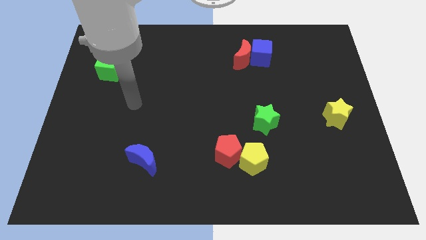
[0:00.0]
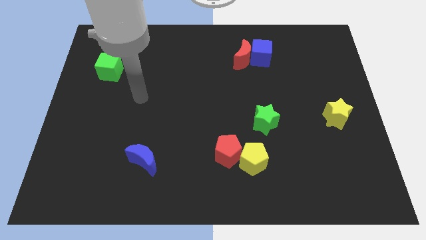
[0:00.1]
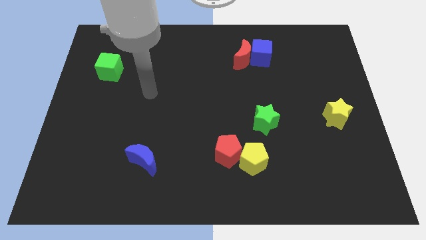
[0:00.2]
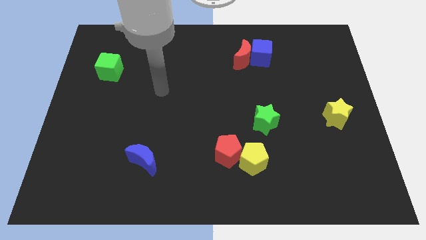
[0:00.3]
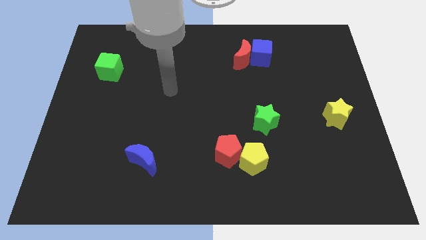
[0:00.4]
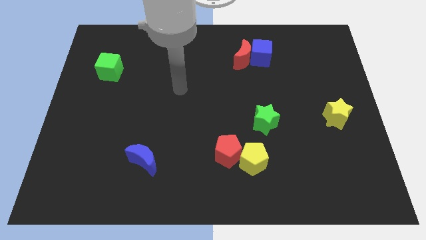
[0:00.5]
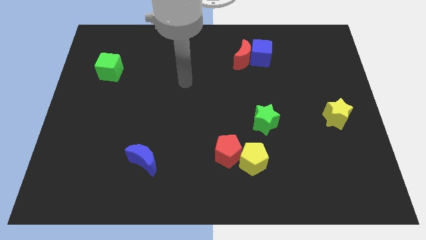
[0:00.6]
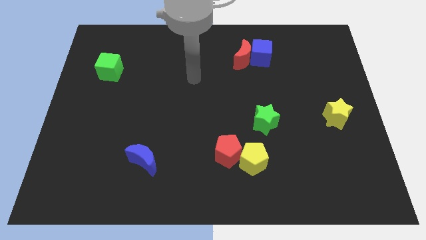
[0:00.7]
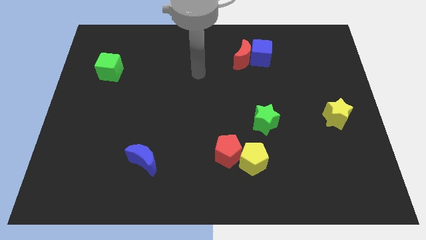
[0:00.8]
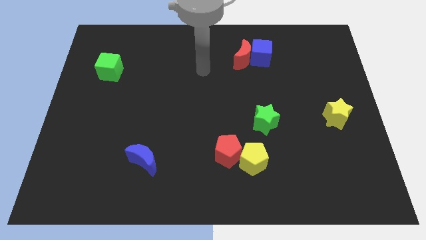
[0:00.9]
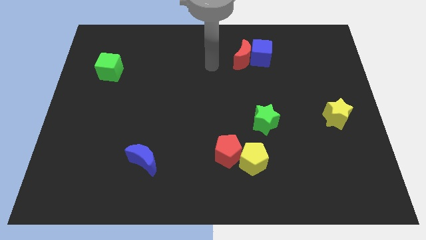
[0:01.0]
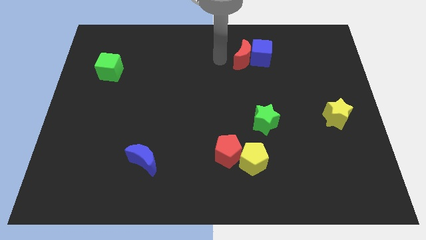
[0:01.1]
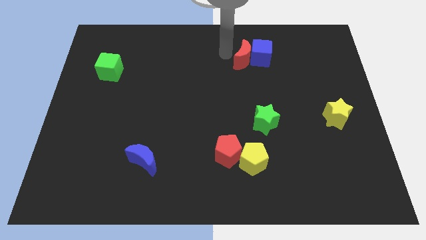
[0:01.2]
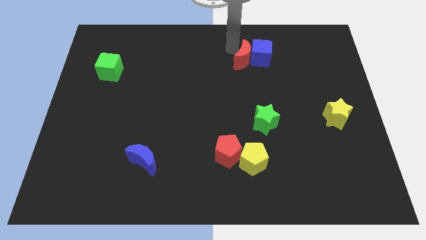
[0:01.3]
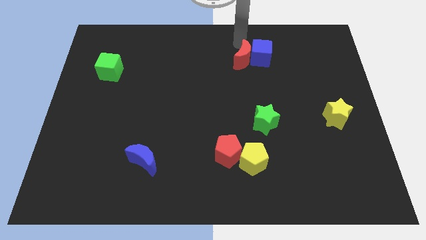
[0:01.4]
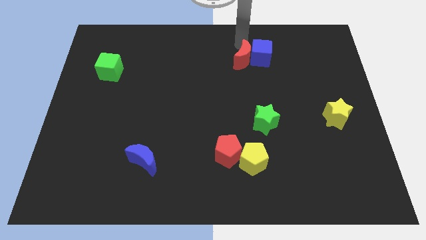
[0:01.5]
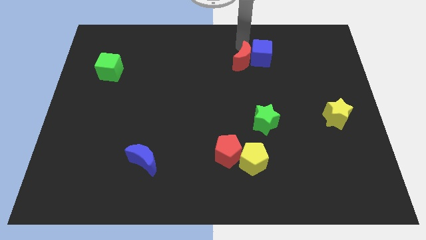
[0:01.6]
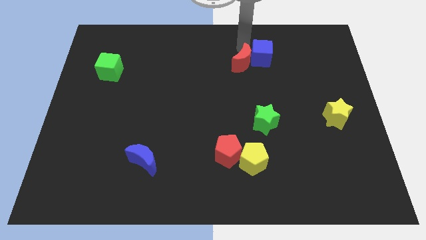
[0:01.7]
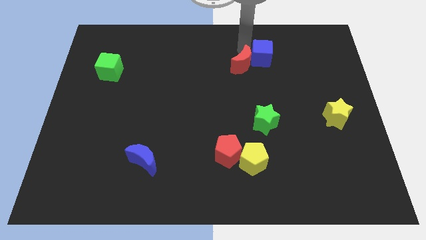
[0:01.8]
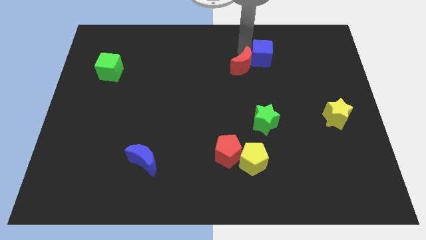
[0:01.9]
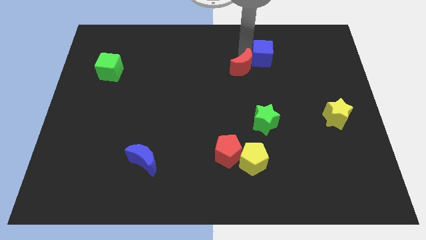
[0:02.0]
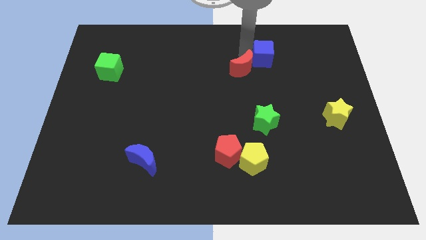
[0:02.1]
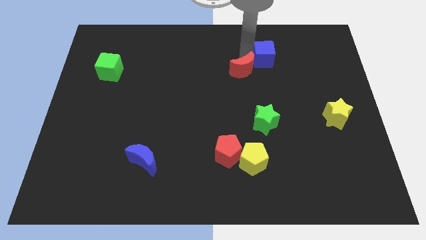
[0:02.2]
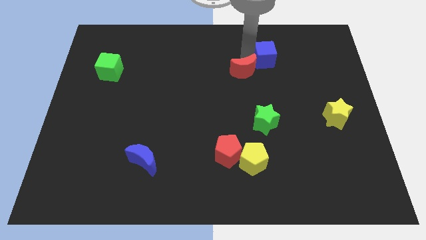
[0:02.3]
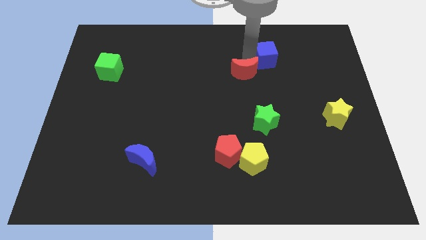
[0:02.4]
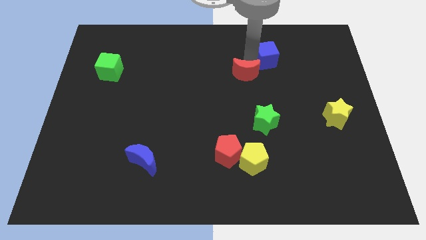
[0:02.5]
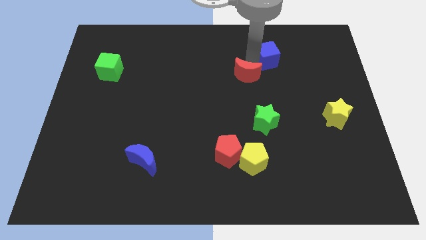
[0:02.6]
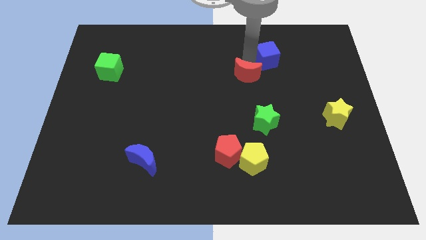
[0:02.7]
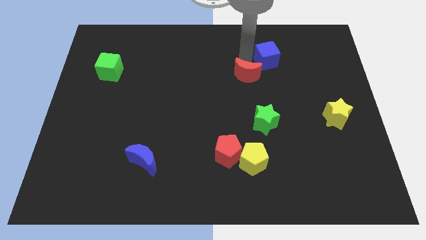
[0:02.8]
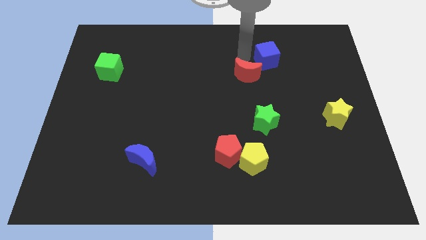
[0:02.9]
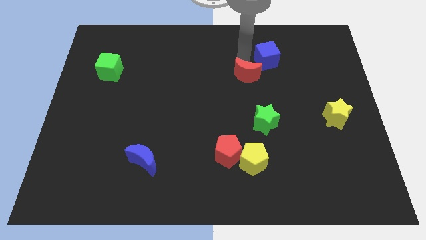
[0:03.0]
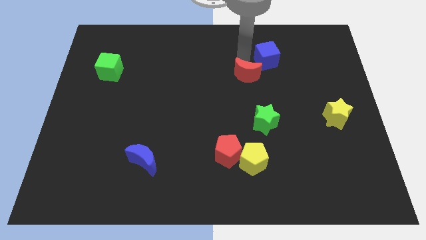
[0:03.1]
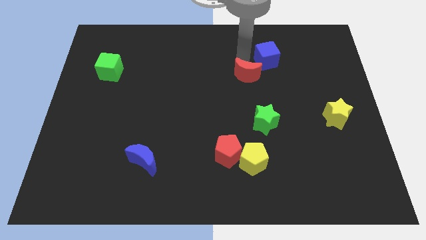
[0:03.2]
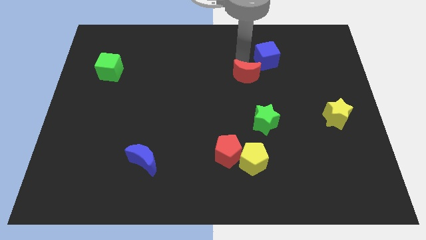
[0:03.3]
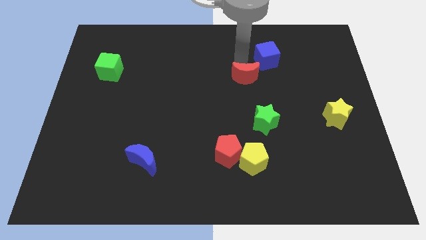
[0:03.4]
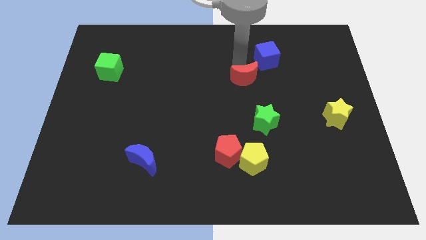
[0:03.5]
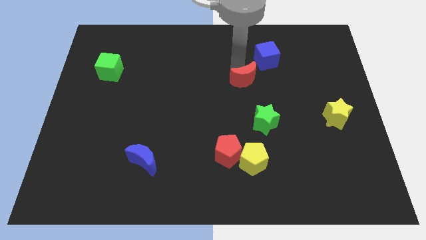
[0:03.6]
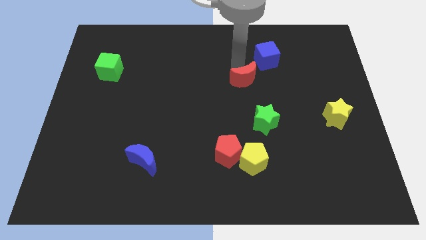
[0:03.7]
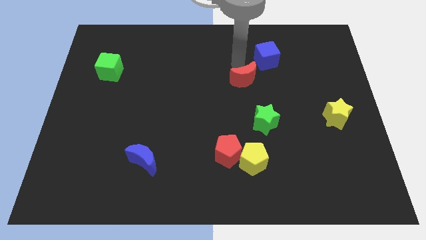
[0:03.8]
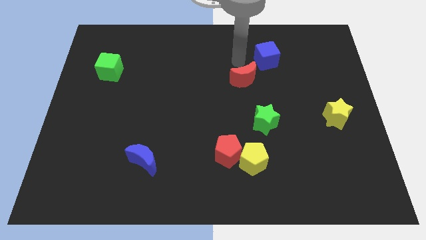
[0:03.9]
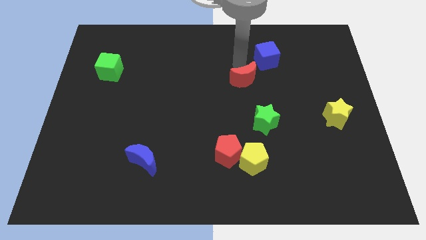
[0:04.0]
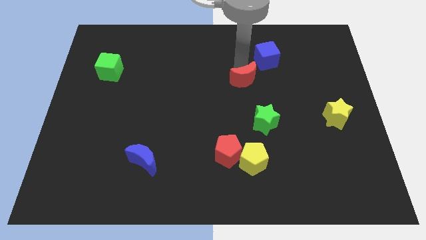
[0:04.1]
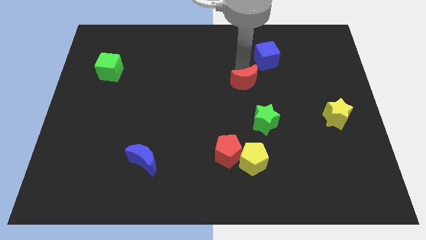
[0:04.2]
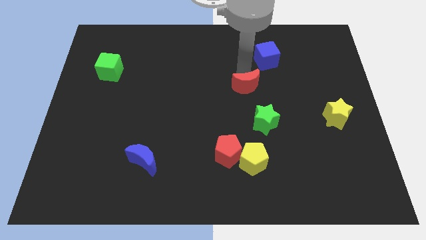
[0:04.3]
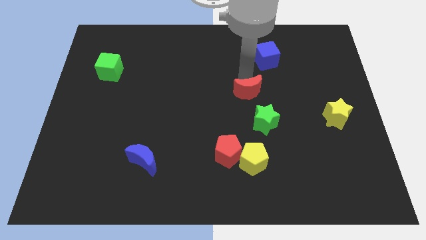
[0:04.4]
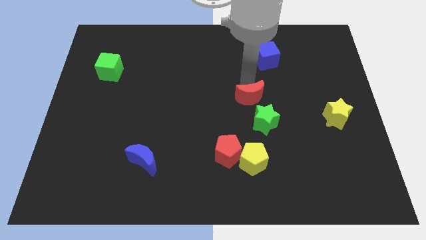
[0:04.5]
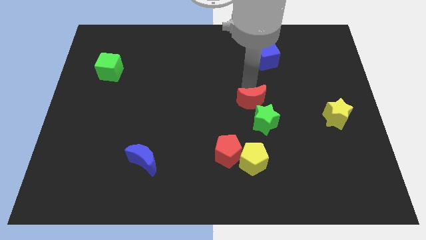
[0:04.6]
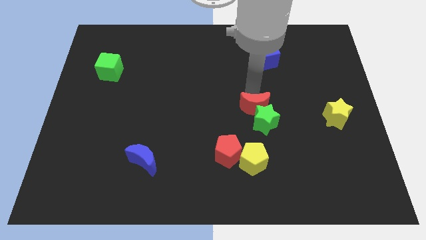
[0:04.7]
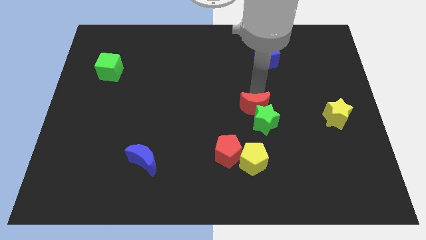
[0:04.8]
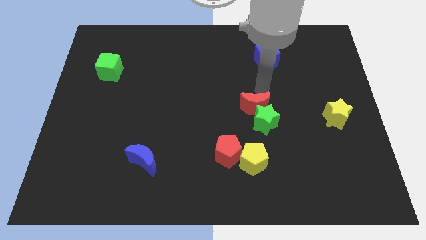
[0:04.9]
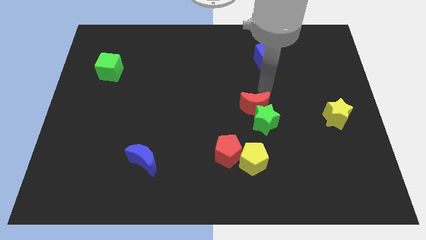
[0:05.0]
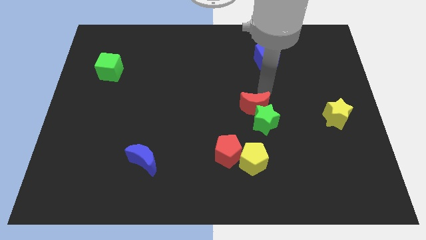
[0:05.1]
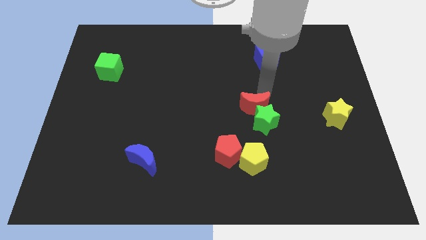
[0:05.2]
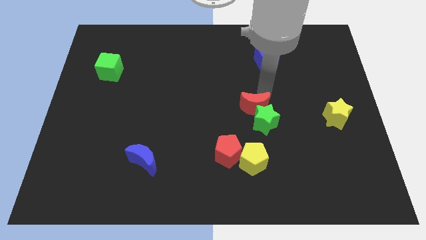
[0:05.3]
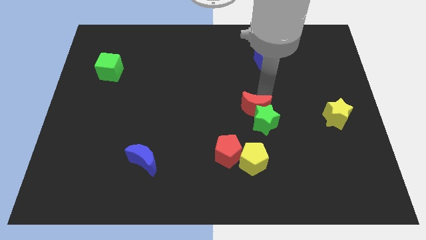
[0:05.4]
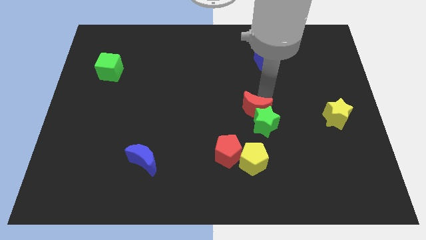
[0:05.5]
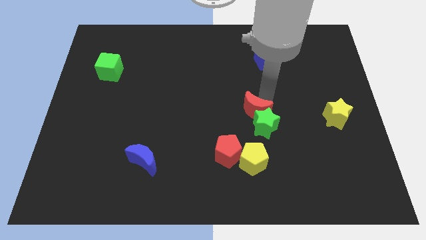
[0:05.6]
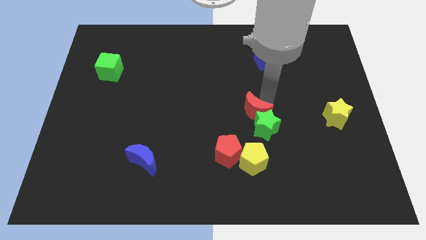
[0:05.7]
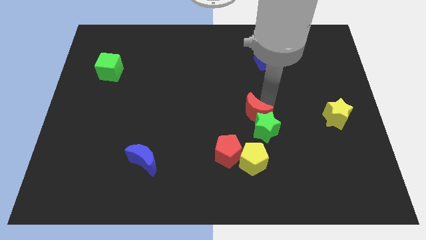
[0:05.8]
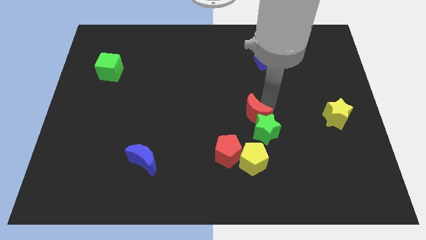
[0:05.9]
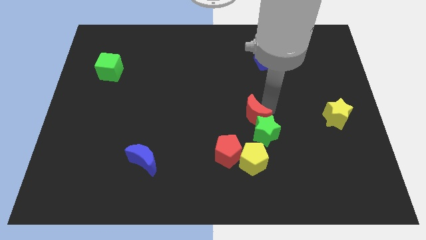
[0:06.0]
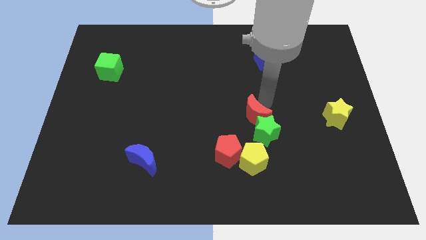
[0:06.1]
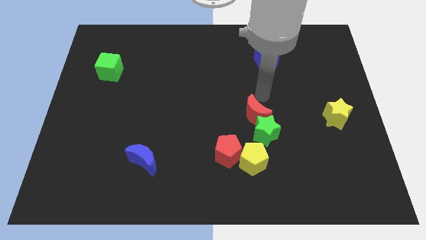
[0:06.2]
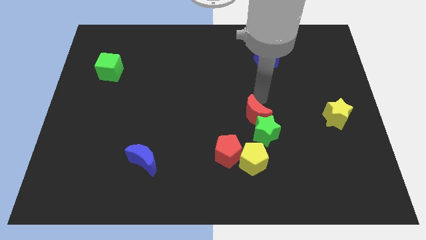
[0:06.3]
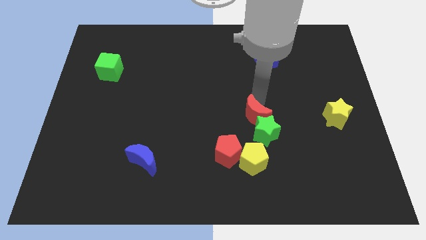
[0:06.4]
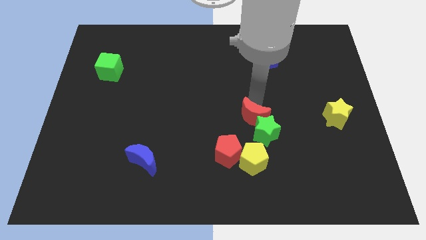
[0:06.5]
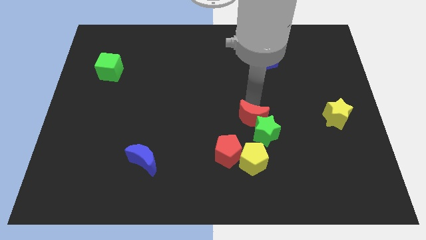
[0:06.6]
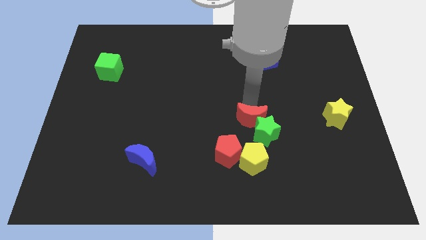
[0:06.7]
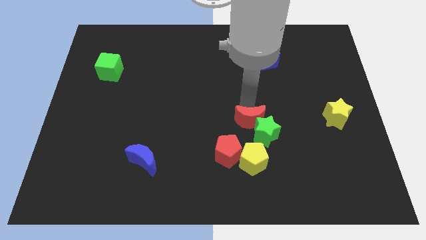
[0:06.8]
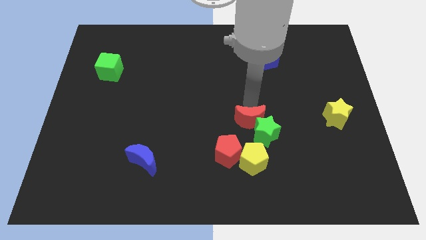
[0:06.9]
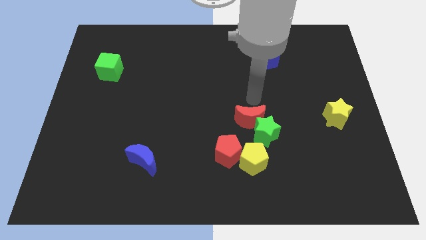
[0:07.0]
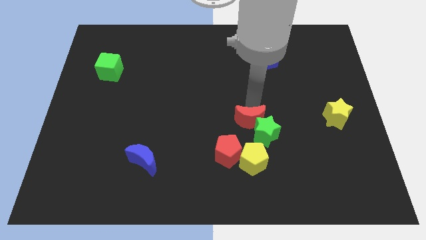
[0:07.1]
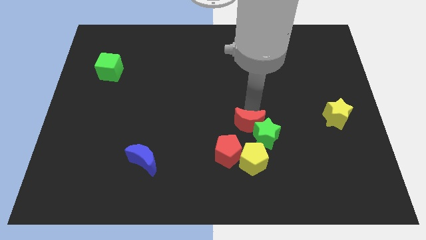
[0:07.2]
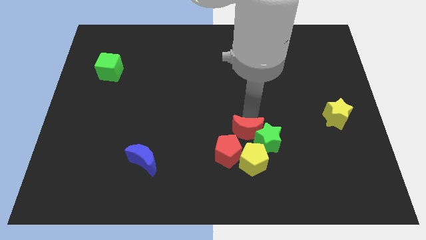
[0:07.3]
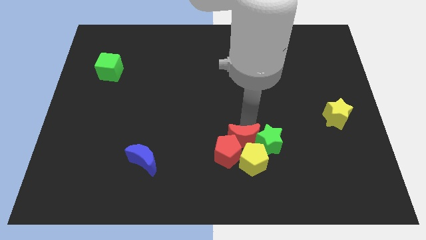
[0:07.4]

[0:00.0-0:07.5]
put the red moon to the bottom left side of the green star
